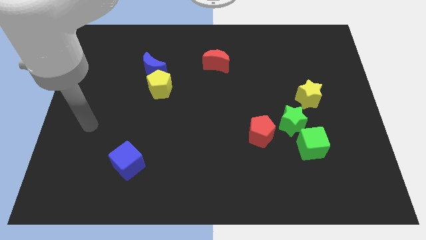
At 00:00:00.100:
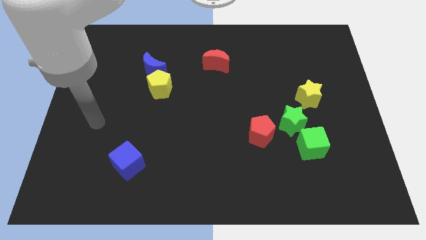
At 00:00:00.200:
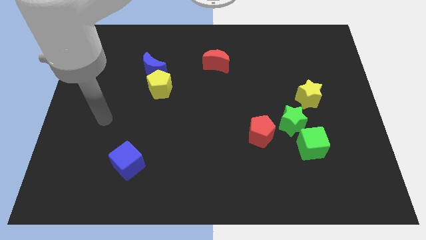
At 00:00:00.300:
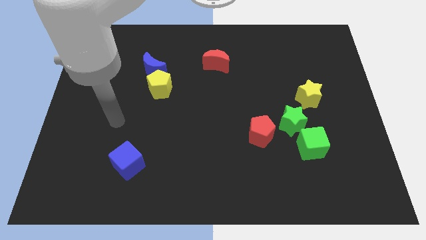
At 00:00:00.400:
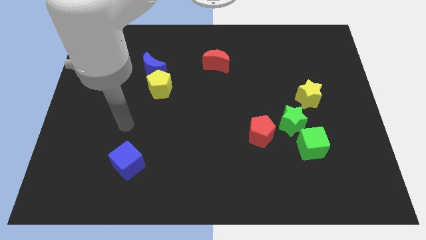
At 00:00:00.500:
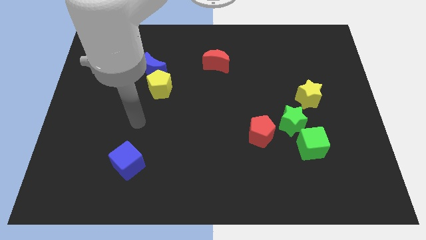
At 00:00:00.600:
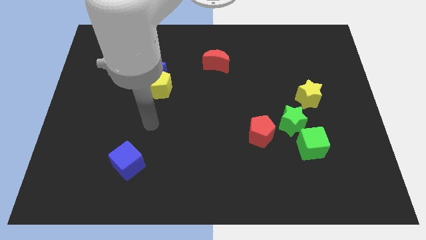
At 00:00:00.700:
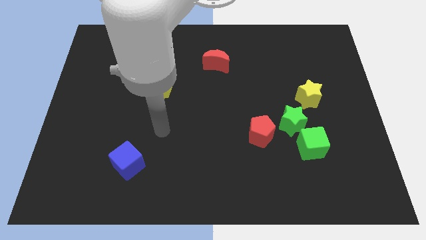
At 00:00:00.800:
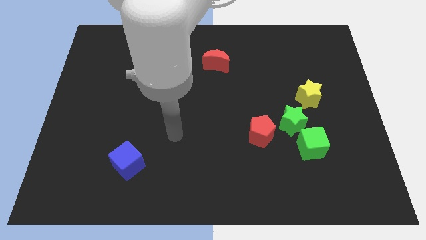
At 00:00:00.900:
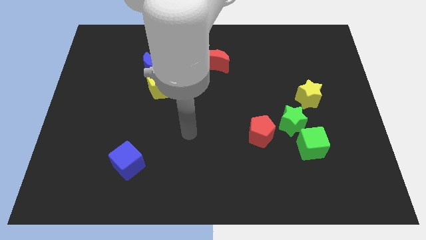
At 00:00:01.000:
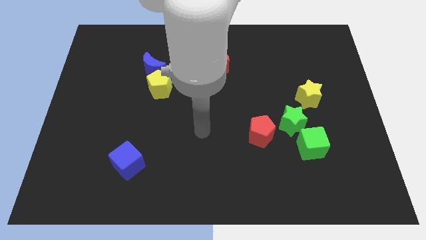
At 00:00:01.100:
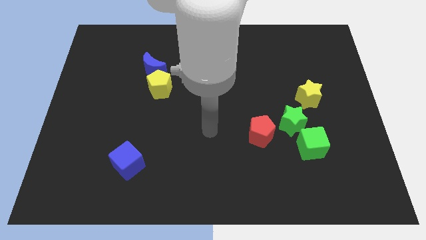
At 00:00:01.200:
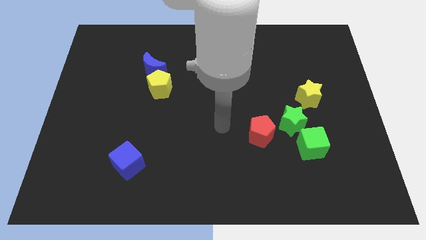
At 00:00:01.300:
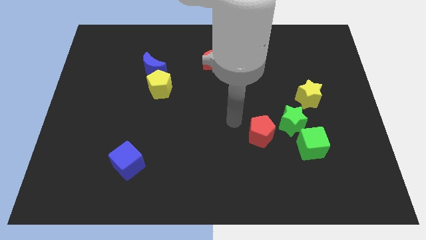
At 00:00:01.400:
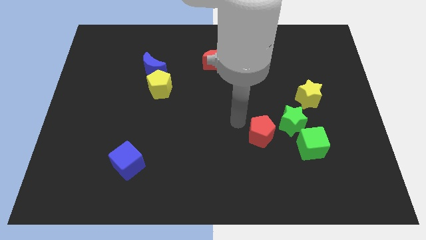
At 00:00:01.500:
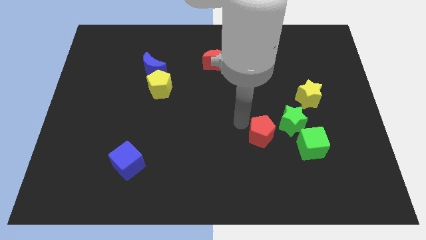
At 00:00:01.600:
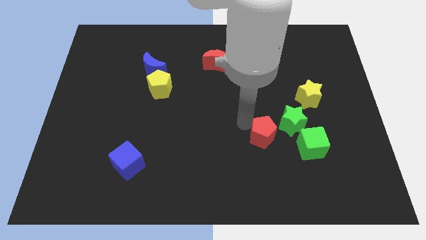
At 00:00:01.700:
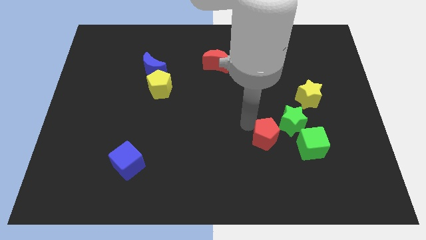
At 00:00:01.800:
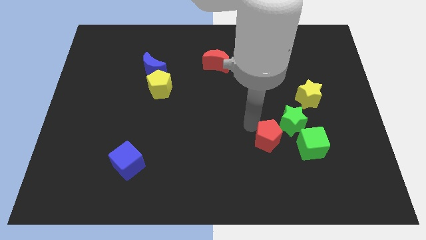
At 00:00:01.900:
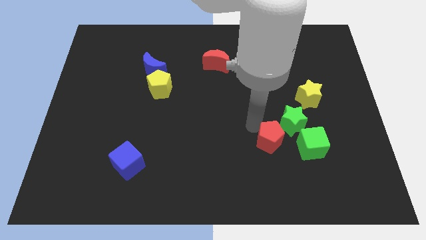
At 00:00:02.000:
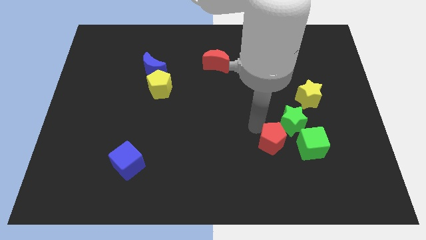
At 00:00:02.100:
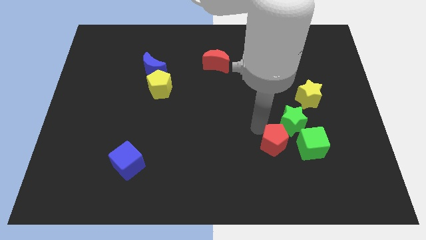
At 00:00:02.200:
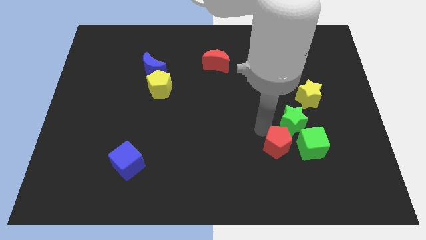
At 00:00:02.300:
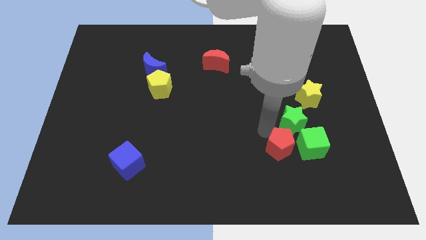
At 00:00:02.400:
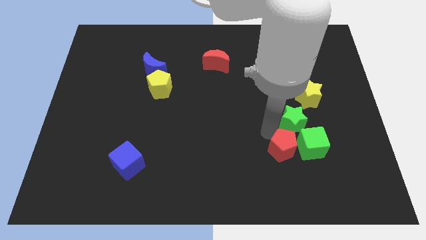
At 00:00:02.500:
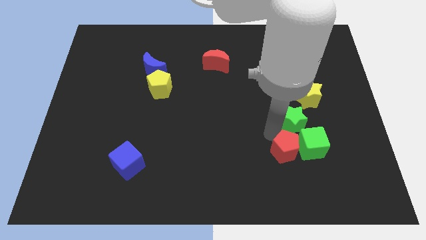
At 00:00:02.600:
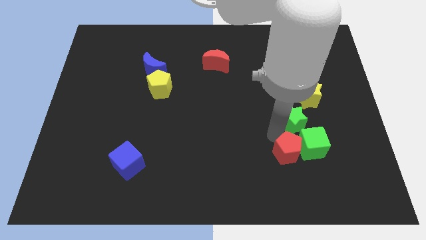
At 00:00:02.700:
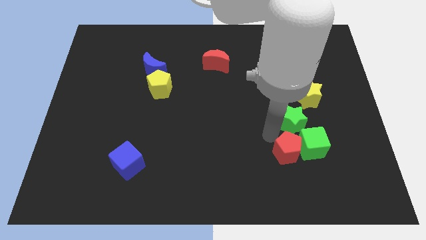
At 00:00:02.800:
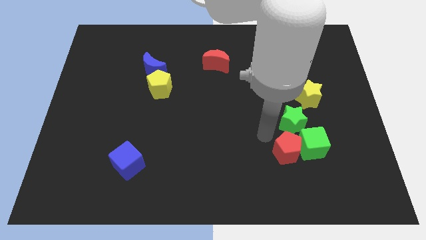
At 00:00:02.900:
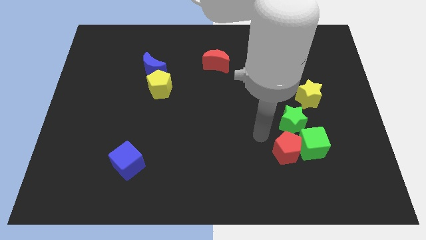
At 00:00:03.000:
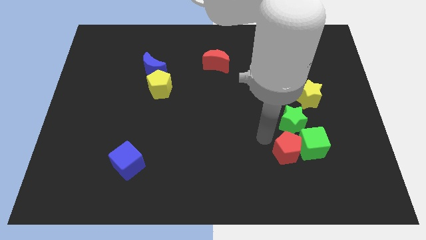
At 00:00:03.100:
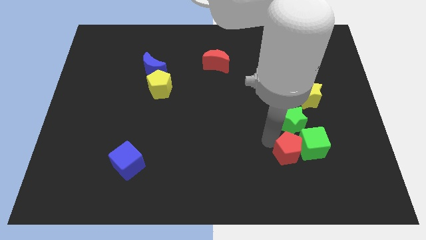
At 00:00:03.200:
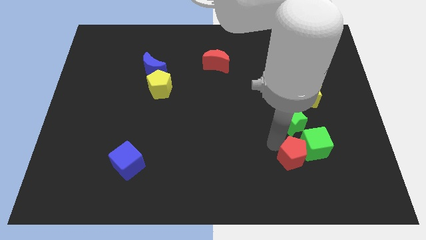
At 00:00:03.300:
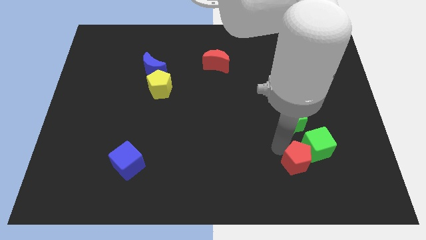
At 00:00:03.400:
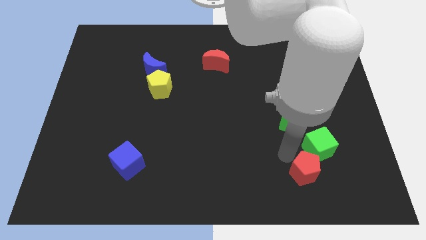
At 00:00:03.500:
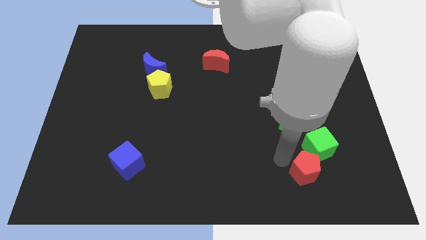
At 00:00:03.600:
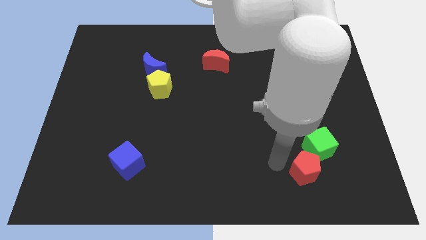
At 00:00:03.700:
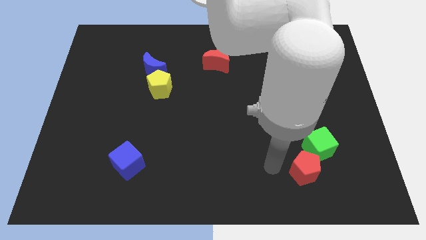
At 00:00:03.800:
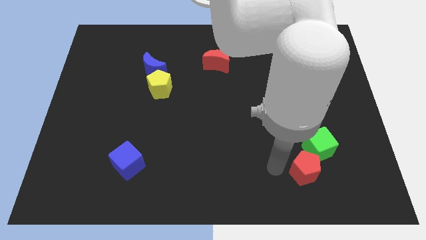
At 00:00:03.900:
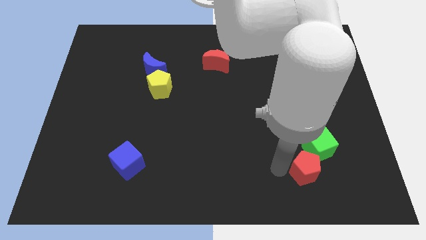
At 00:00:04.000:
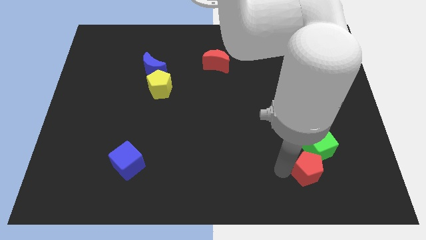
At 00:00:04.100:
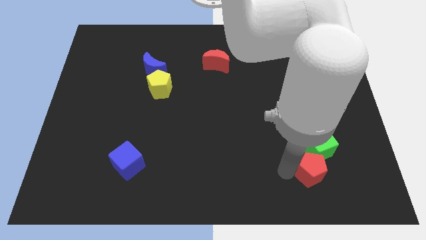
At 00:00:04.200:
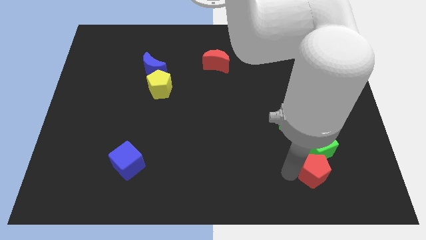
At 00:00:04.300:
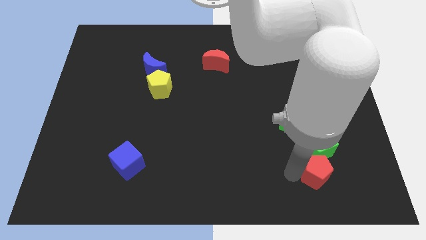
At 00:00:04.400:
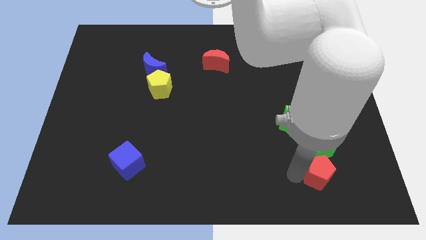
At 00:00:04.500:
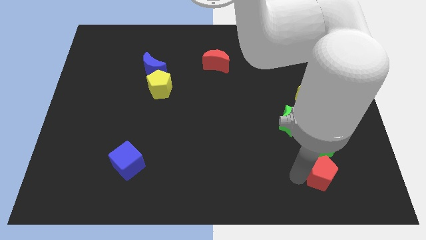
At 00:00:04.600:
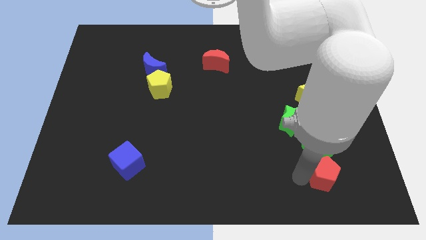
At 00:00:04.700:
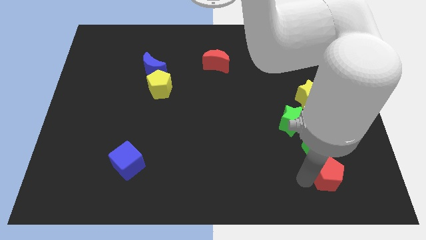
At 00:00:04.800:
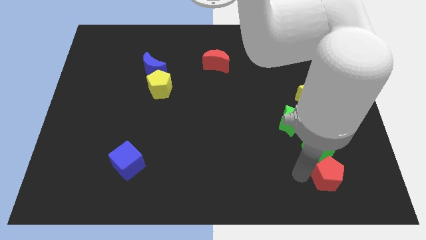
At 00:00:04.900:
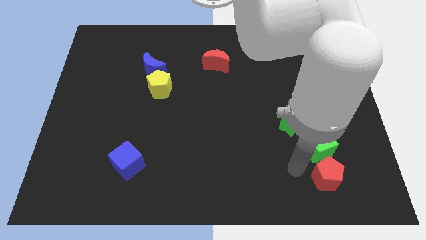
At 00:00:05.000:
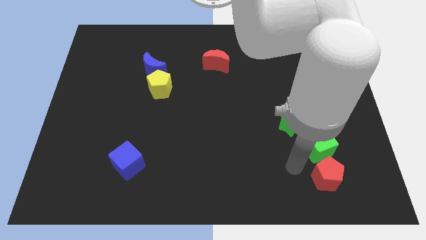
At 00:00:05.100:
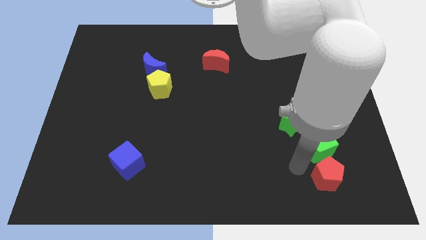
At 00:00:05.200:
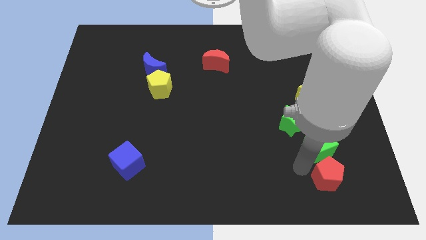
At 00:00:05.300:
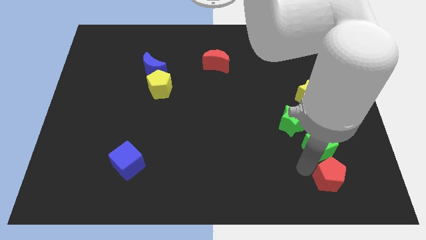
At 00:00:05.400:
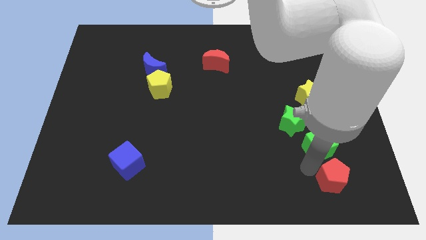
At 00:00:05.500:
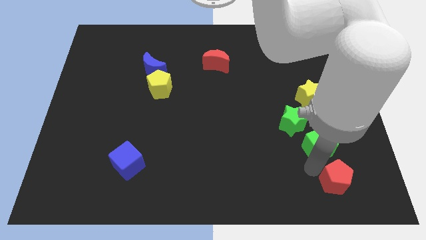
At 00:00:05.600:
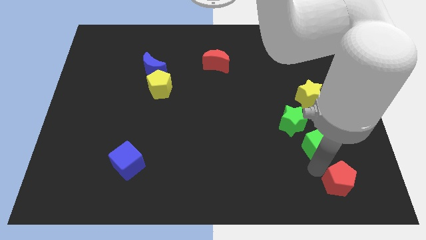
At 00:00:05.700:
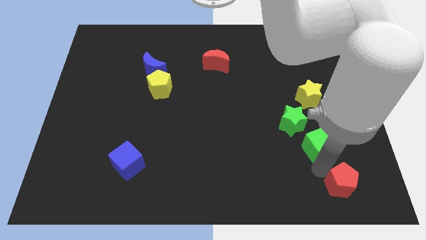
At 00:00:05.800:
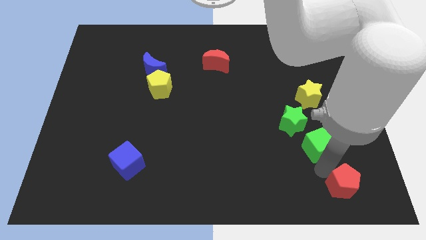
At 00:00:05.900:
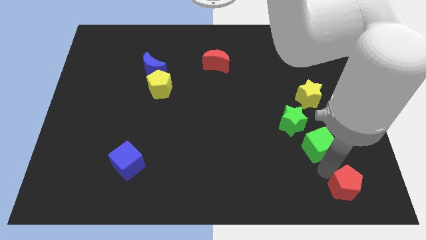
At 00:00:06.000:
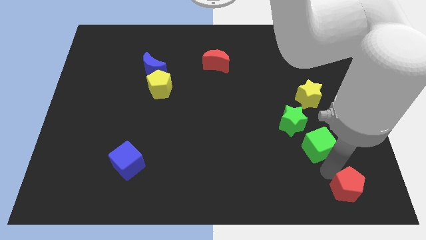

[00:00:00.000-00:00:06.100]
push the red pentagon to the bottom right of the board
